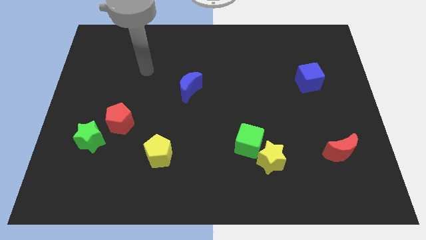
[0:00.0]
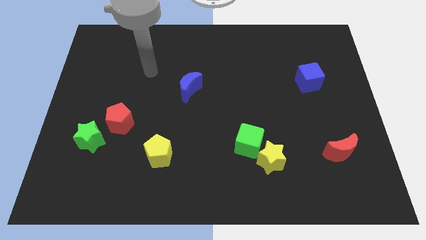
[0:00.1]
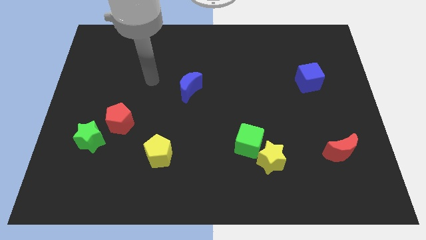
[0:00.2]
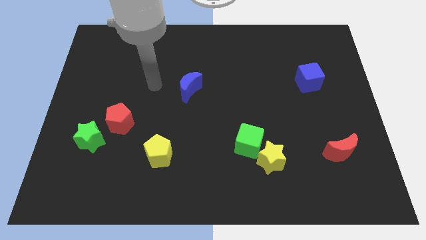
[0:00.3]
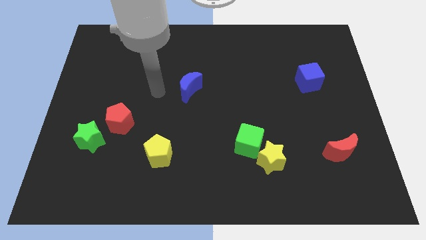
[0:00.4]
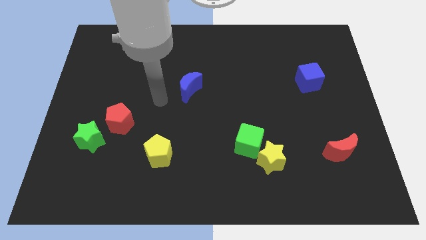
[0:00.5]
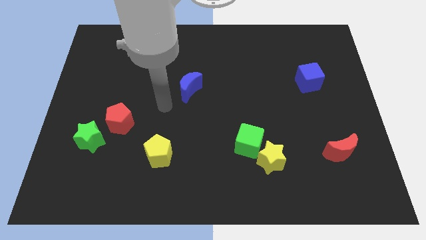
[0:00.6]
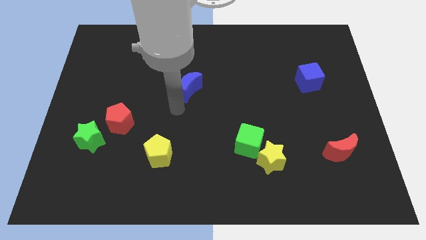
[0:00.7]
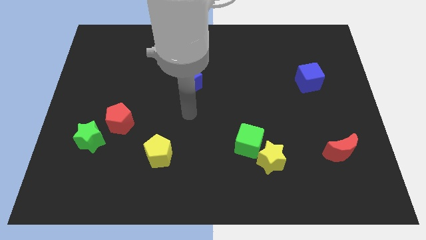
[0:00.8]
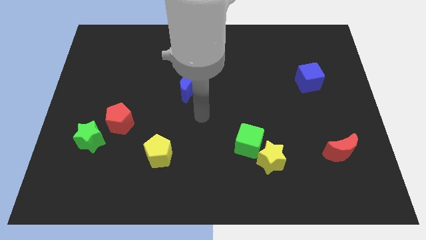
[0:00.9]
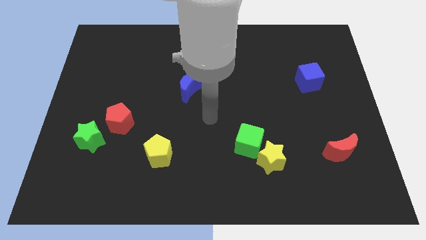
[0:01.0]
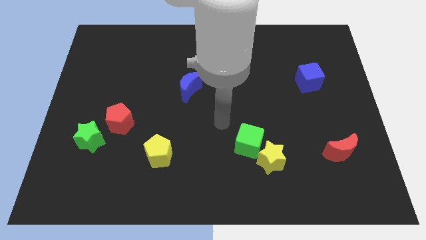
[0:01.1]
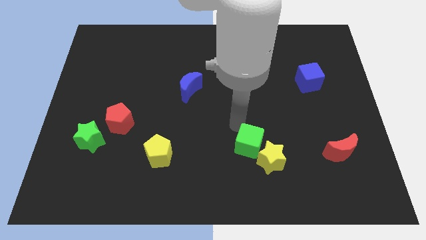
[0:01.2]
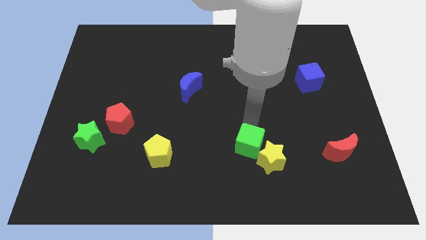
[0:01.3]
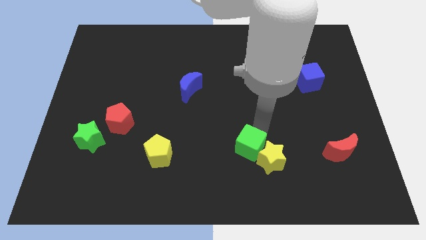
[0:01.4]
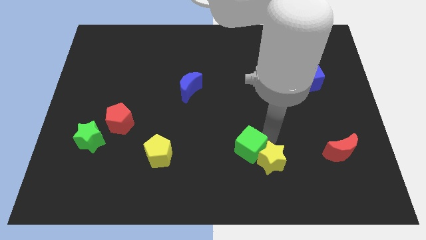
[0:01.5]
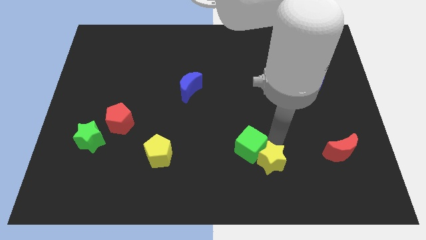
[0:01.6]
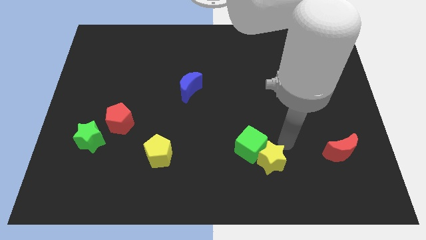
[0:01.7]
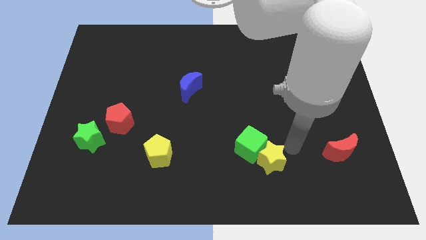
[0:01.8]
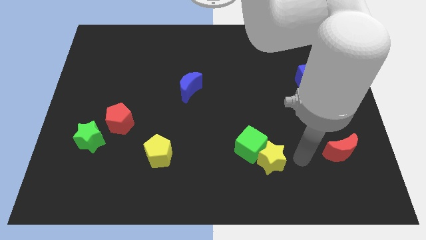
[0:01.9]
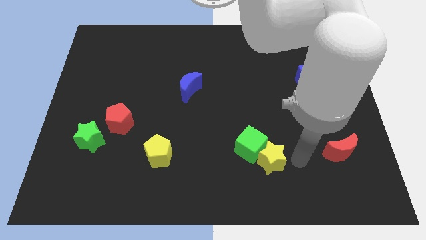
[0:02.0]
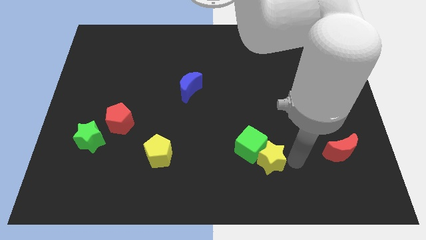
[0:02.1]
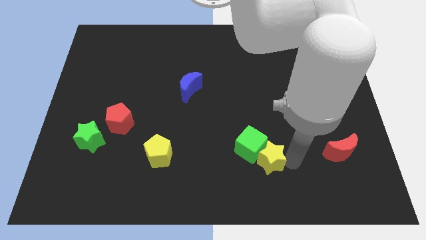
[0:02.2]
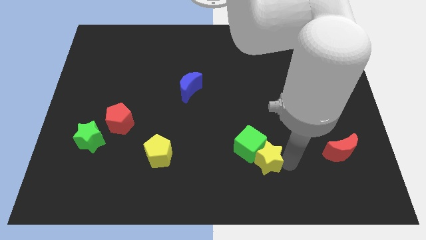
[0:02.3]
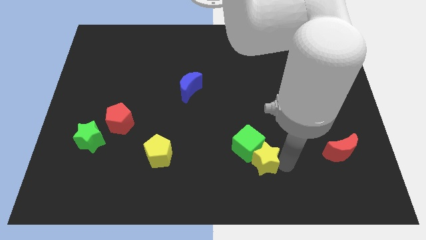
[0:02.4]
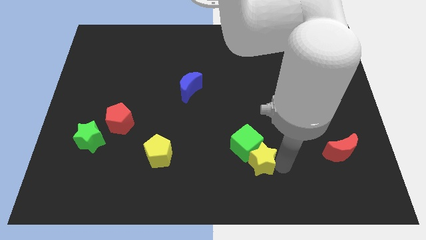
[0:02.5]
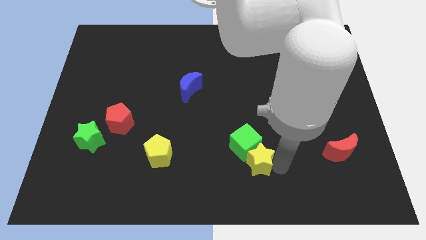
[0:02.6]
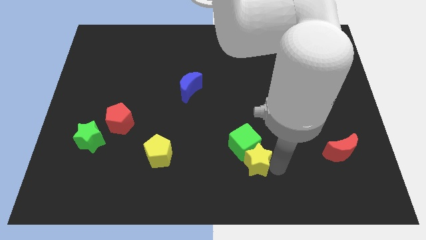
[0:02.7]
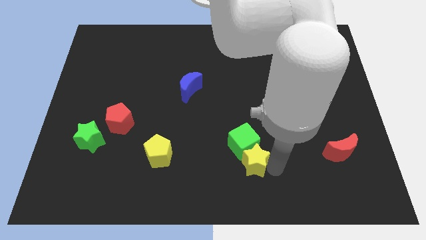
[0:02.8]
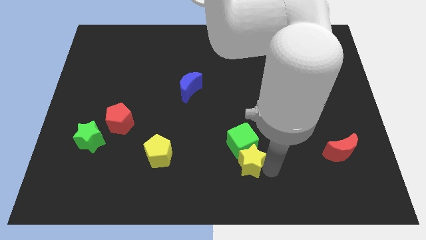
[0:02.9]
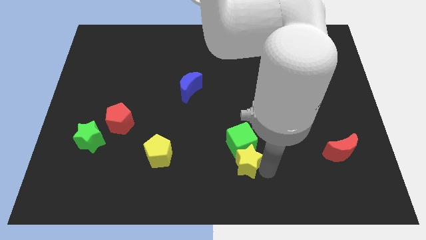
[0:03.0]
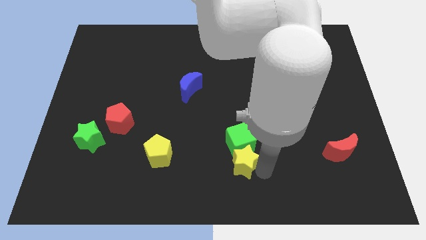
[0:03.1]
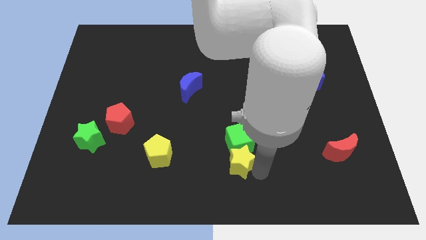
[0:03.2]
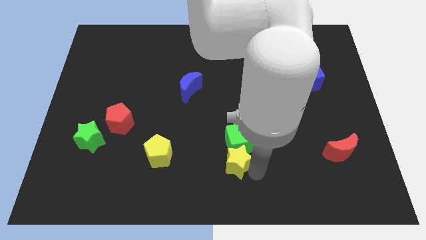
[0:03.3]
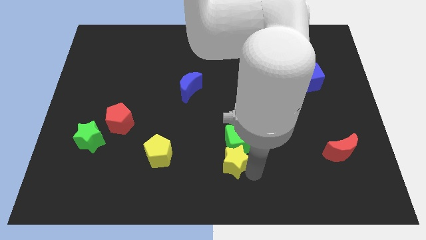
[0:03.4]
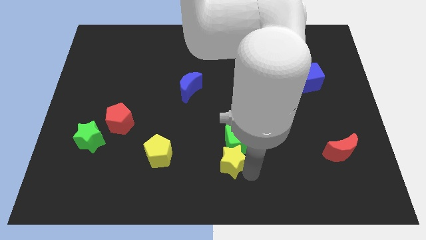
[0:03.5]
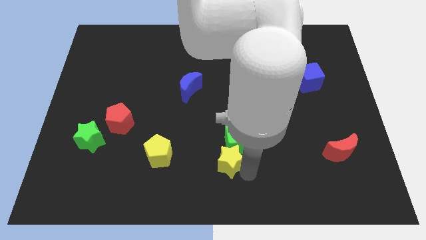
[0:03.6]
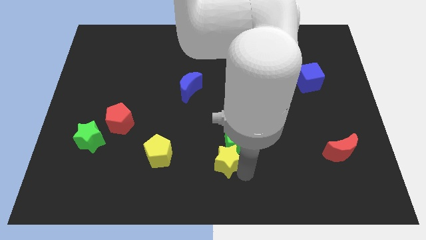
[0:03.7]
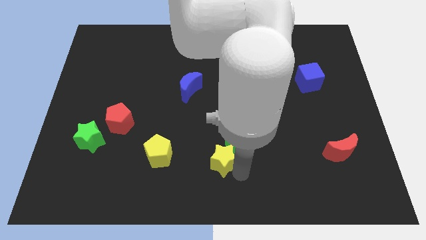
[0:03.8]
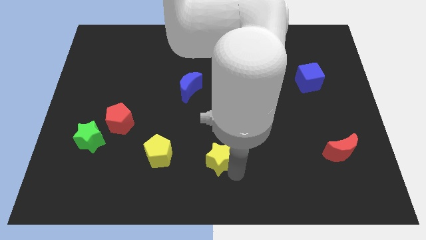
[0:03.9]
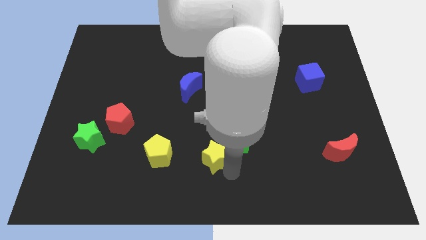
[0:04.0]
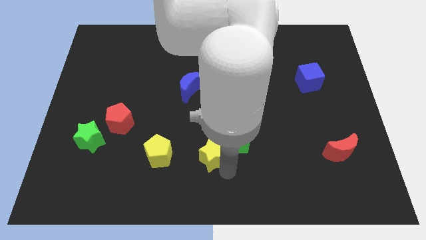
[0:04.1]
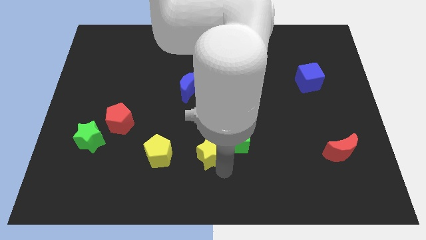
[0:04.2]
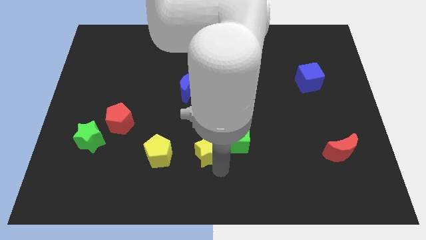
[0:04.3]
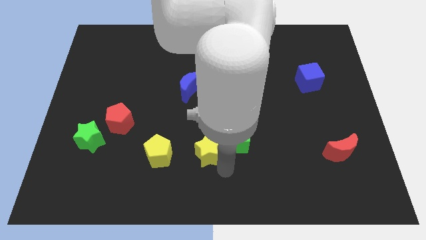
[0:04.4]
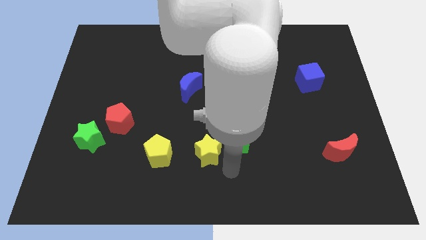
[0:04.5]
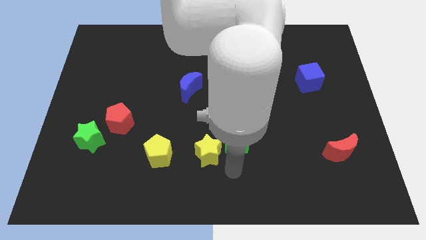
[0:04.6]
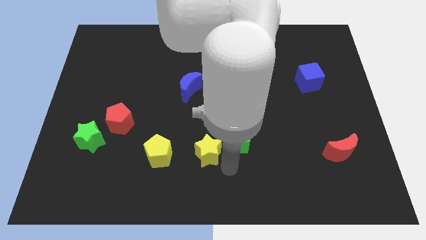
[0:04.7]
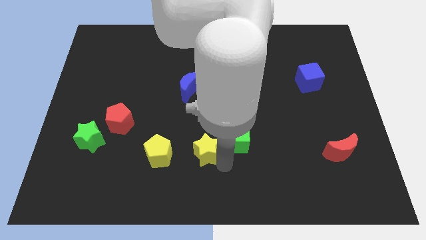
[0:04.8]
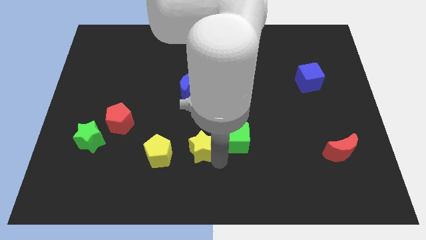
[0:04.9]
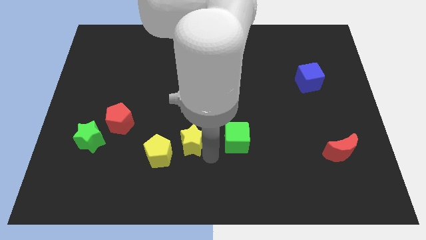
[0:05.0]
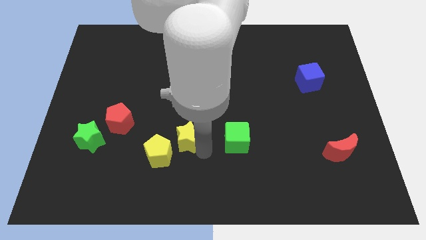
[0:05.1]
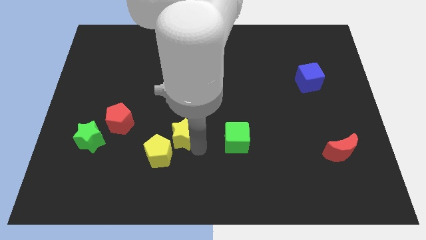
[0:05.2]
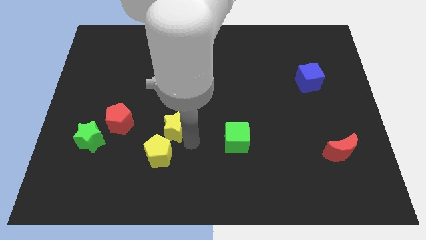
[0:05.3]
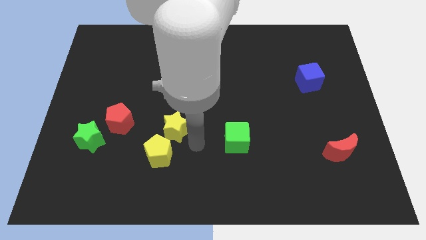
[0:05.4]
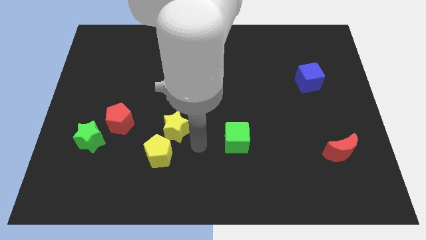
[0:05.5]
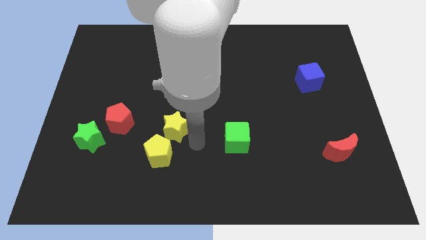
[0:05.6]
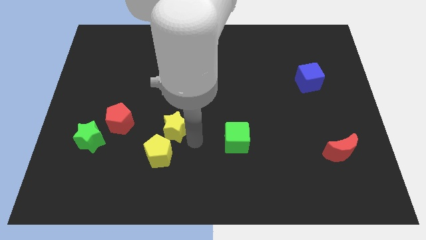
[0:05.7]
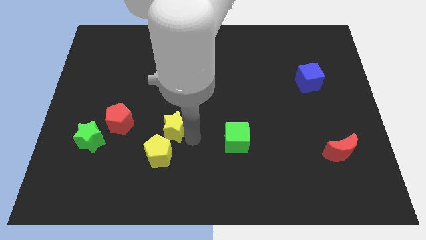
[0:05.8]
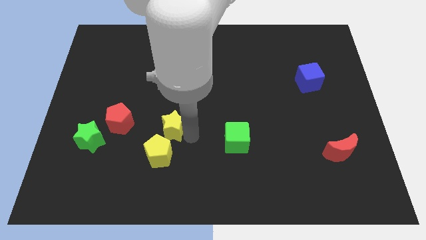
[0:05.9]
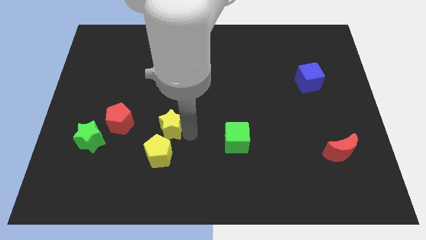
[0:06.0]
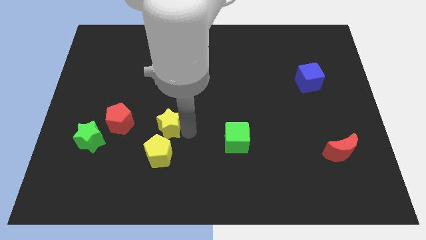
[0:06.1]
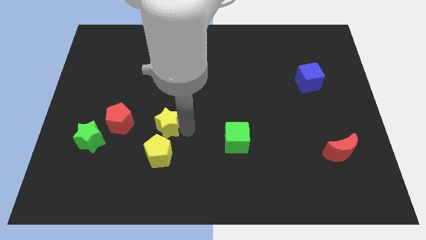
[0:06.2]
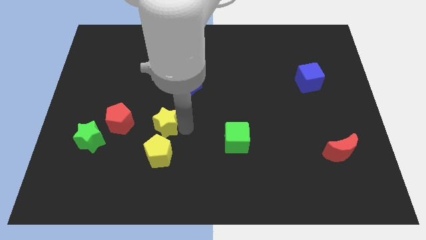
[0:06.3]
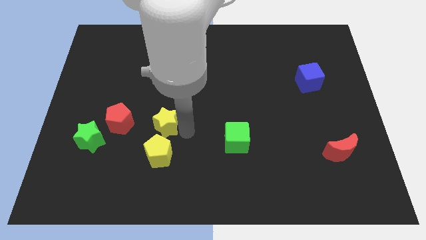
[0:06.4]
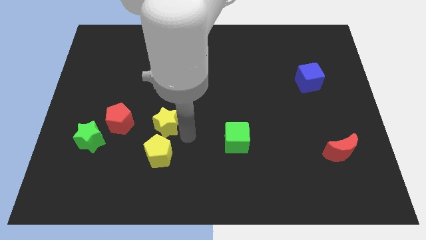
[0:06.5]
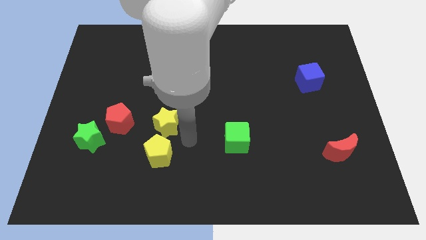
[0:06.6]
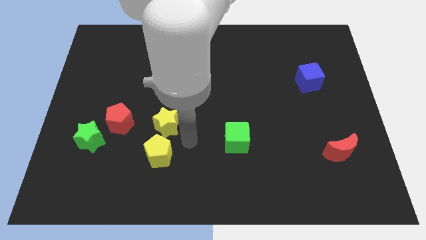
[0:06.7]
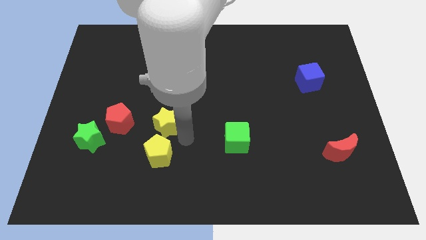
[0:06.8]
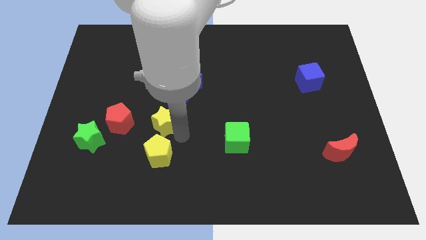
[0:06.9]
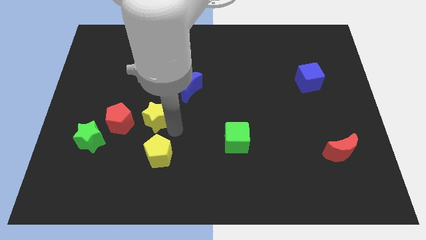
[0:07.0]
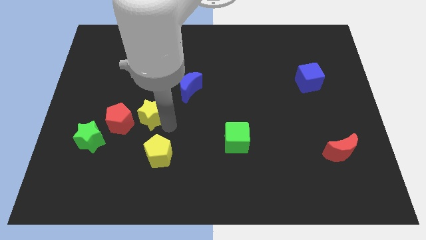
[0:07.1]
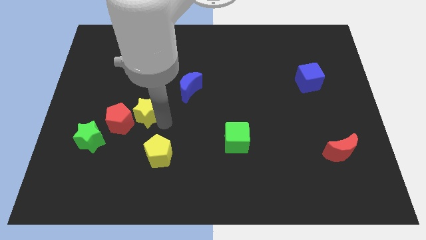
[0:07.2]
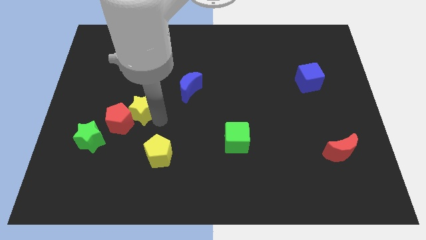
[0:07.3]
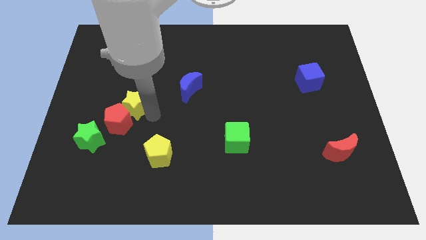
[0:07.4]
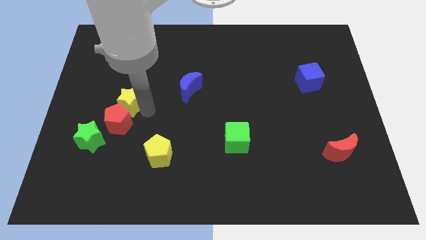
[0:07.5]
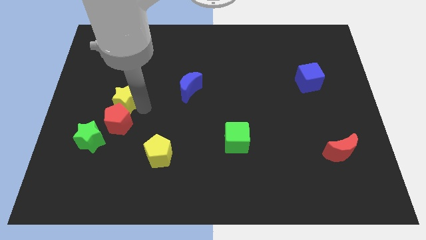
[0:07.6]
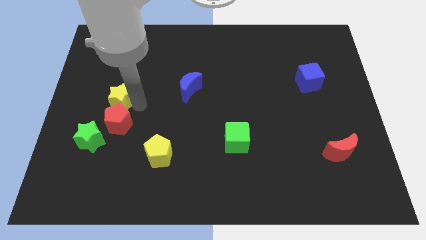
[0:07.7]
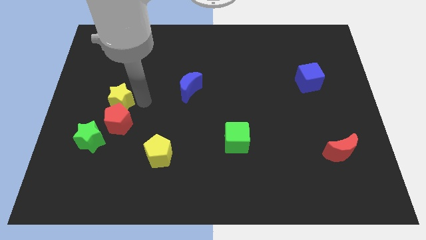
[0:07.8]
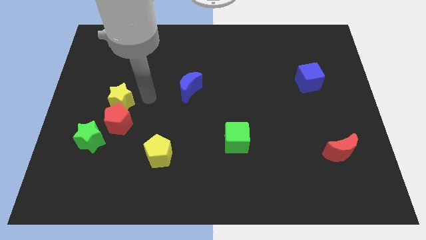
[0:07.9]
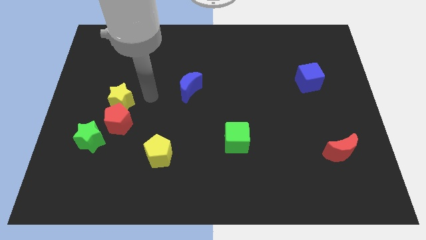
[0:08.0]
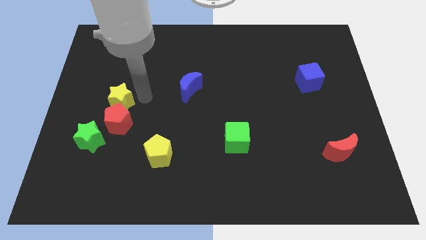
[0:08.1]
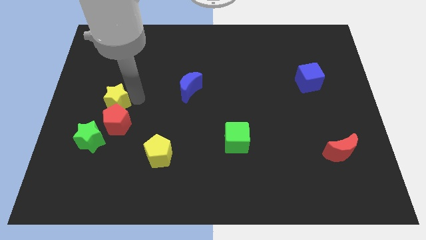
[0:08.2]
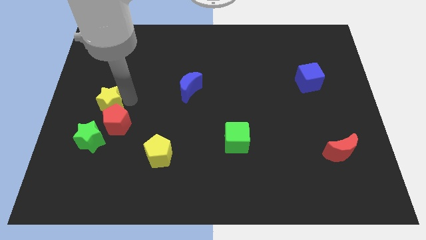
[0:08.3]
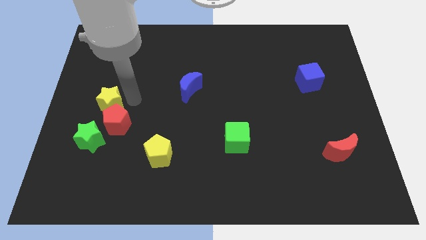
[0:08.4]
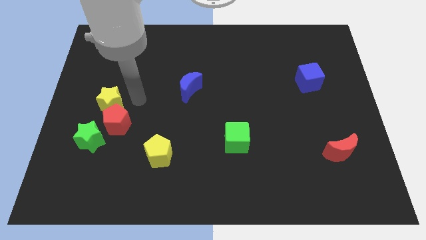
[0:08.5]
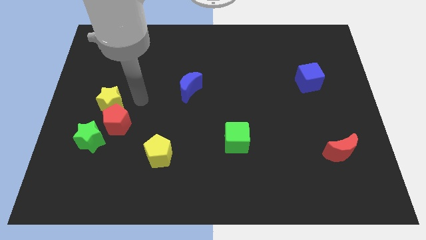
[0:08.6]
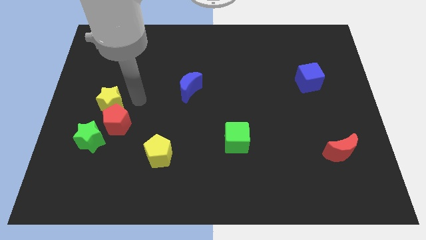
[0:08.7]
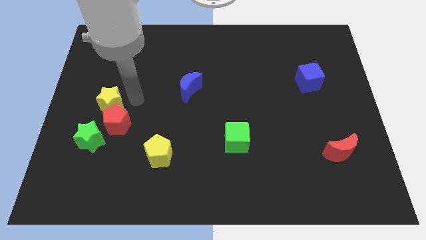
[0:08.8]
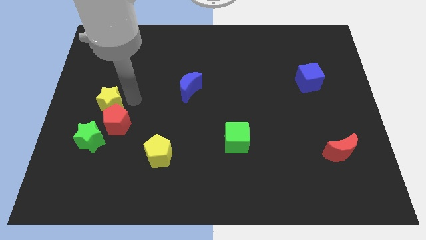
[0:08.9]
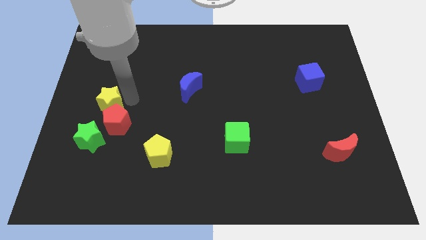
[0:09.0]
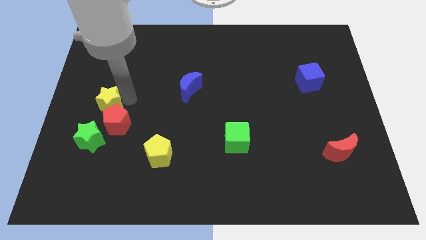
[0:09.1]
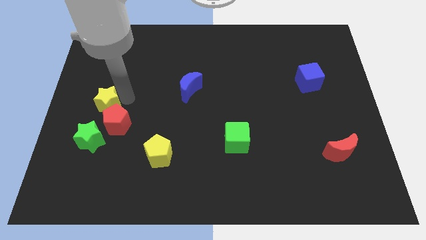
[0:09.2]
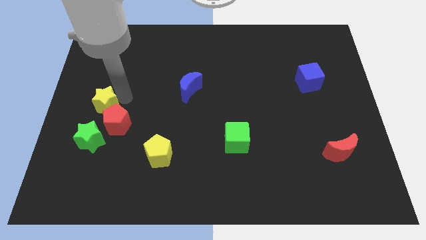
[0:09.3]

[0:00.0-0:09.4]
push the yellow star to the center left
